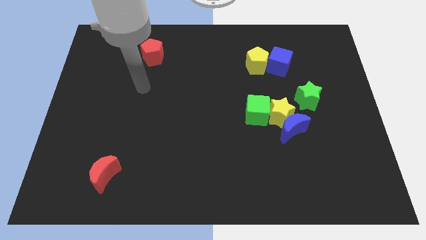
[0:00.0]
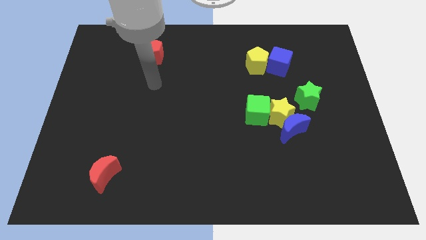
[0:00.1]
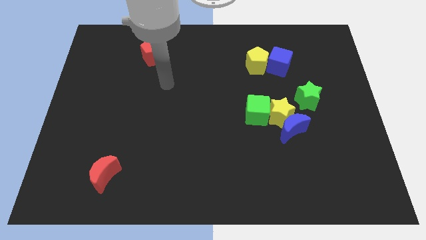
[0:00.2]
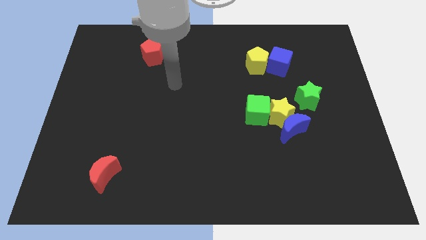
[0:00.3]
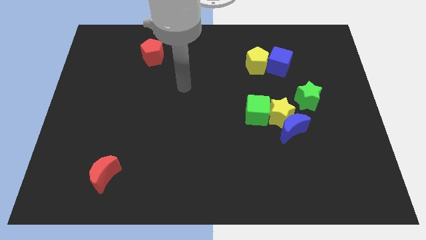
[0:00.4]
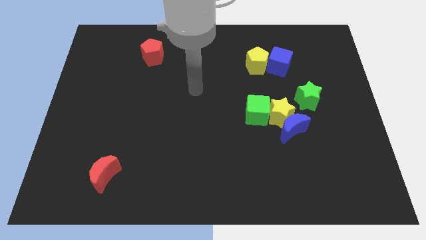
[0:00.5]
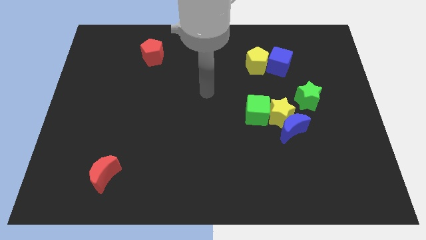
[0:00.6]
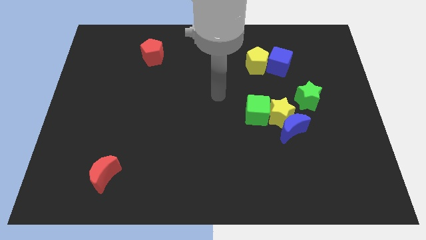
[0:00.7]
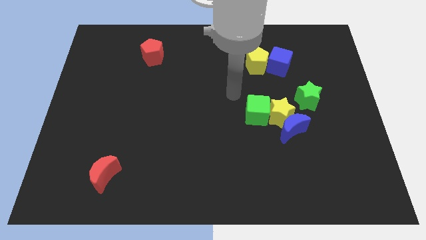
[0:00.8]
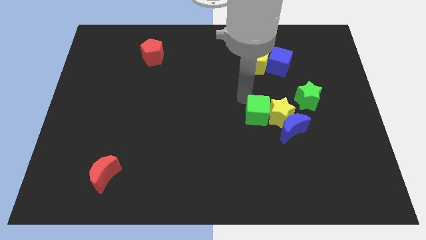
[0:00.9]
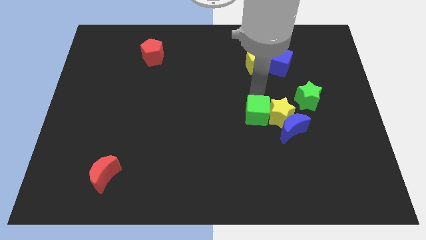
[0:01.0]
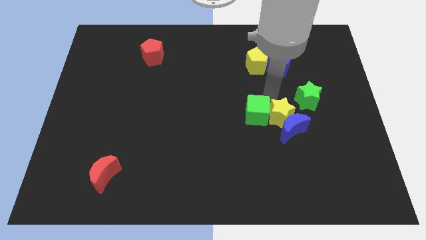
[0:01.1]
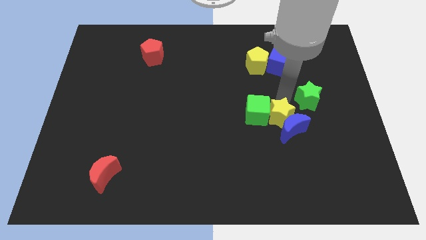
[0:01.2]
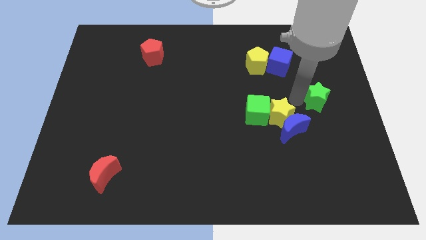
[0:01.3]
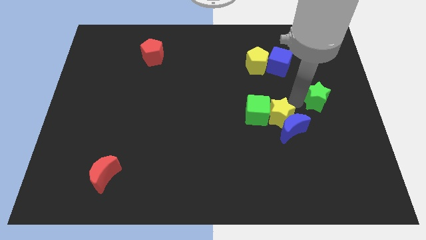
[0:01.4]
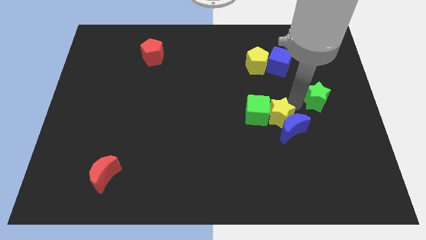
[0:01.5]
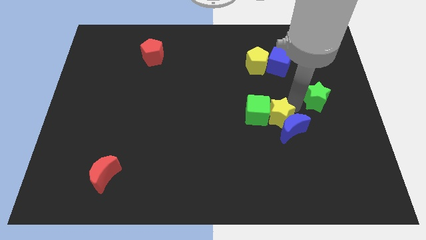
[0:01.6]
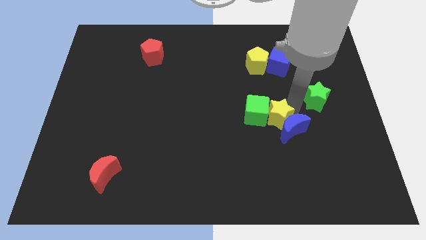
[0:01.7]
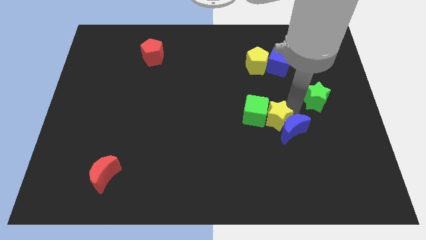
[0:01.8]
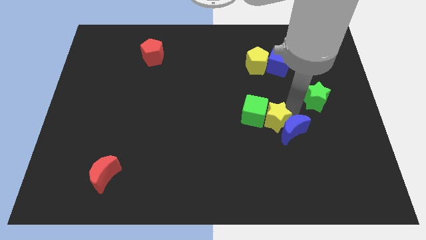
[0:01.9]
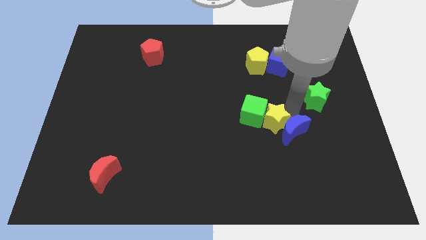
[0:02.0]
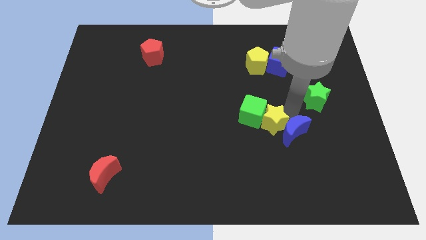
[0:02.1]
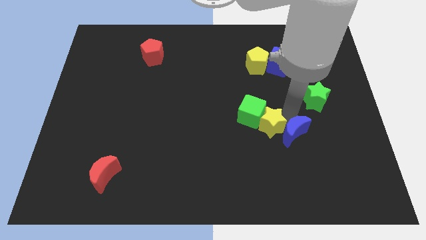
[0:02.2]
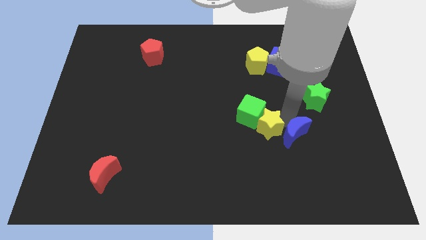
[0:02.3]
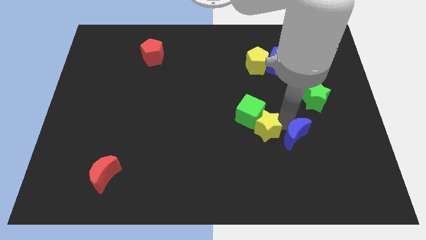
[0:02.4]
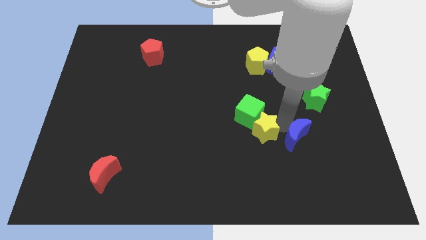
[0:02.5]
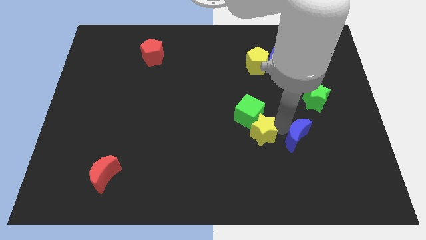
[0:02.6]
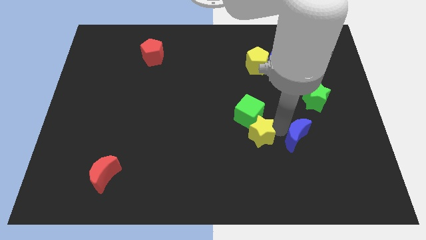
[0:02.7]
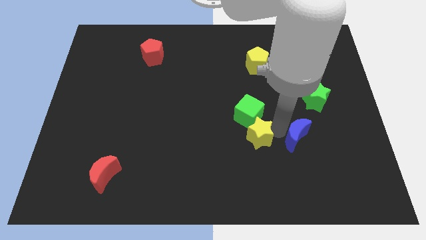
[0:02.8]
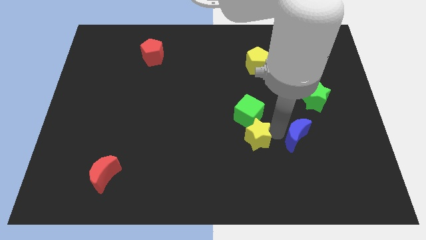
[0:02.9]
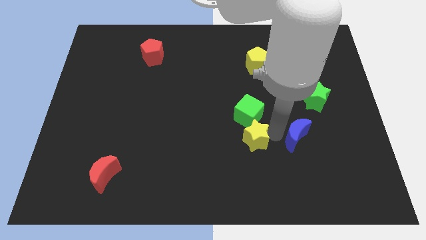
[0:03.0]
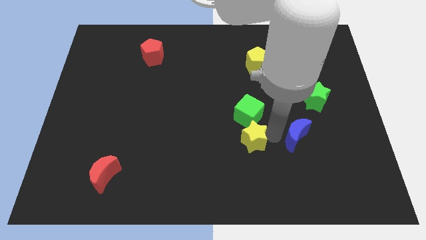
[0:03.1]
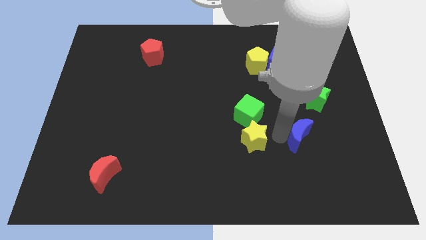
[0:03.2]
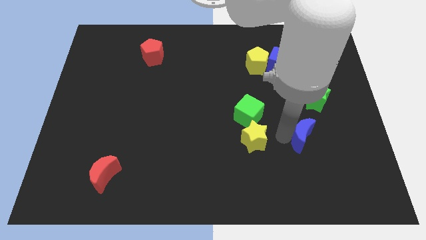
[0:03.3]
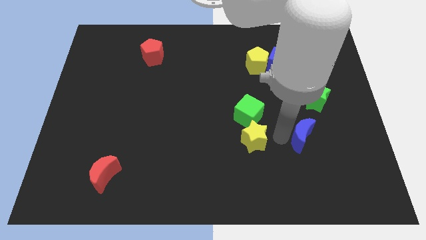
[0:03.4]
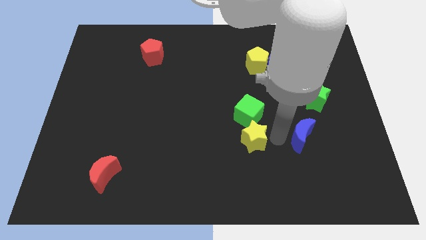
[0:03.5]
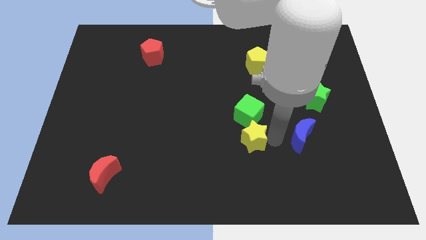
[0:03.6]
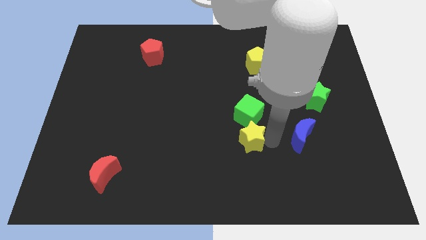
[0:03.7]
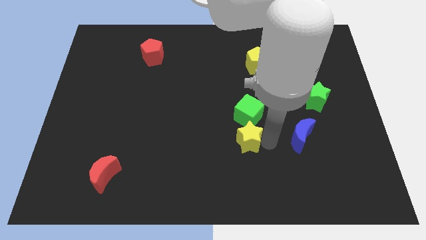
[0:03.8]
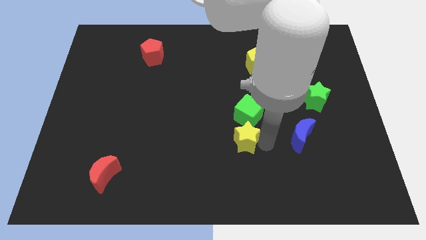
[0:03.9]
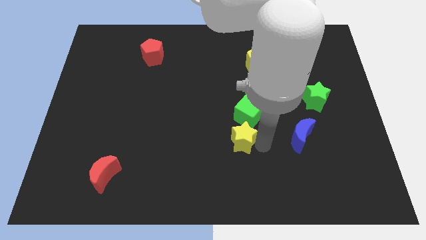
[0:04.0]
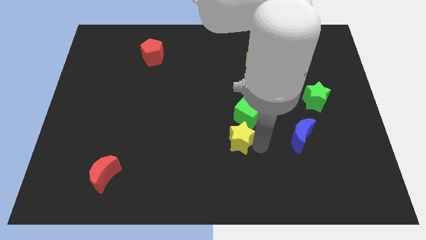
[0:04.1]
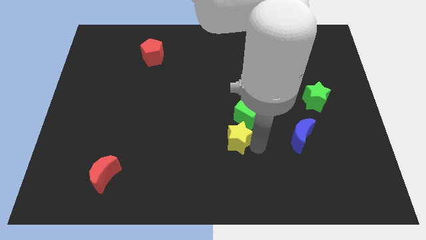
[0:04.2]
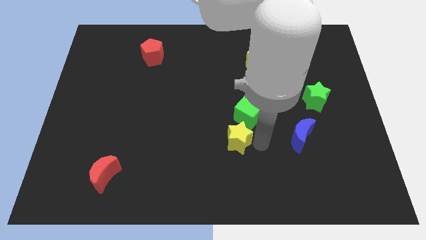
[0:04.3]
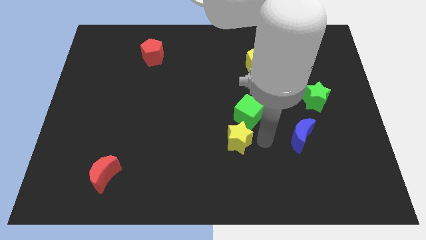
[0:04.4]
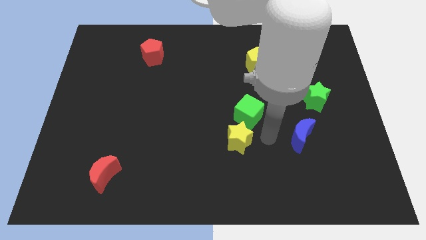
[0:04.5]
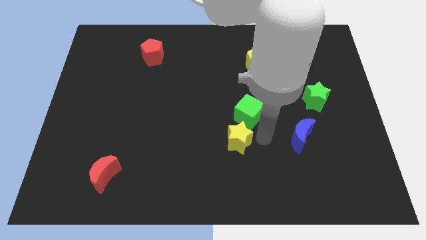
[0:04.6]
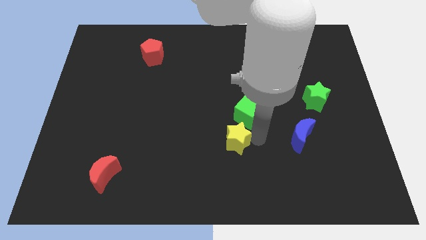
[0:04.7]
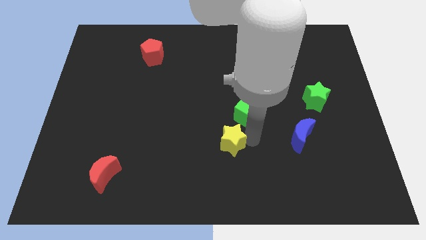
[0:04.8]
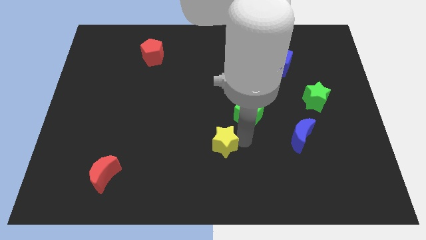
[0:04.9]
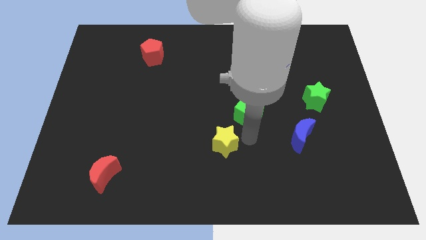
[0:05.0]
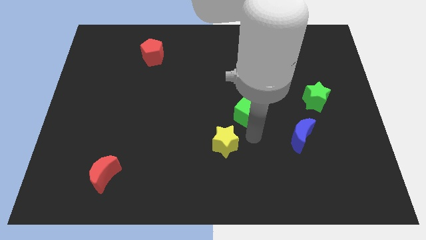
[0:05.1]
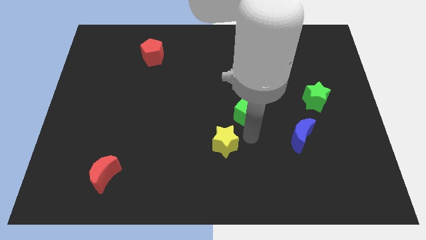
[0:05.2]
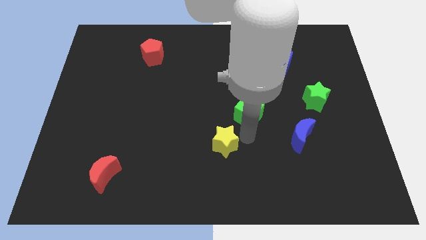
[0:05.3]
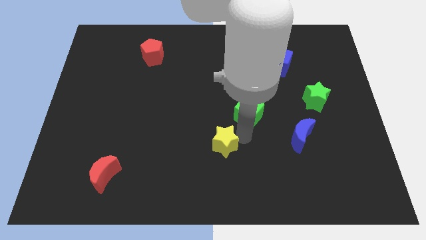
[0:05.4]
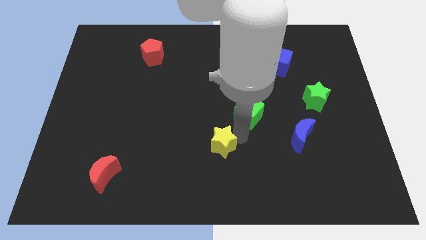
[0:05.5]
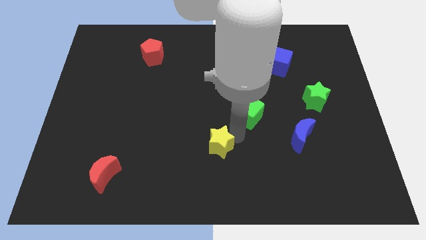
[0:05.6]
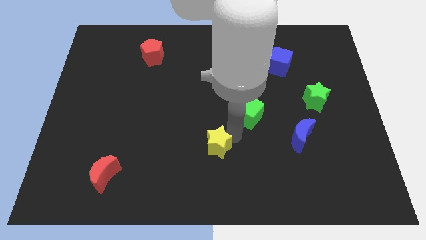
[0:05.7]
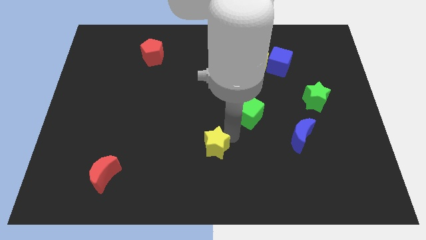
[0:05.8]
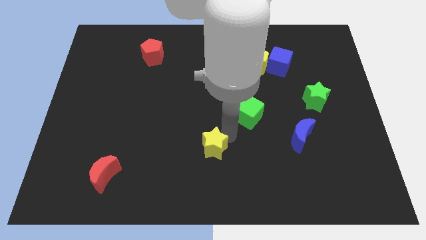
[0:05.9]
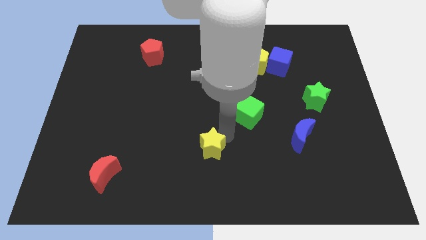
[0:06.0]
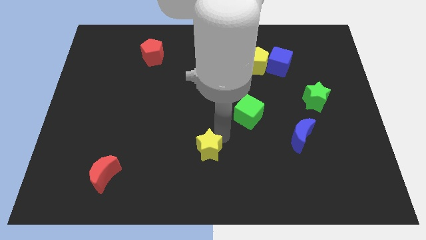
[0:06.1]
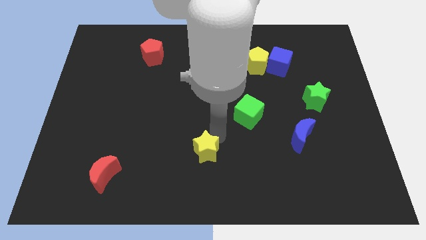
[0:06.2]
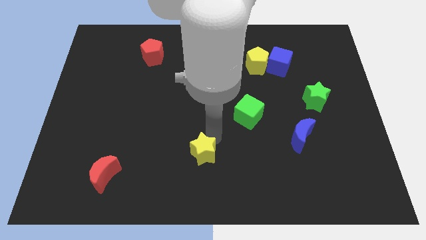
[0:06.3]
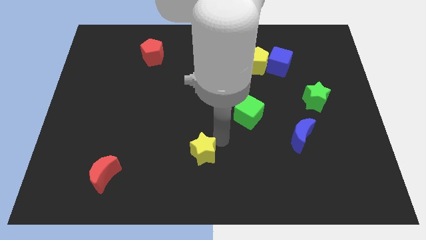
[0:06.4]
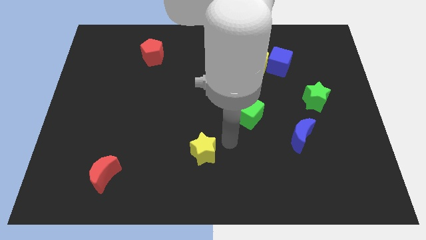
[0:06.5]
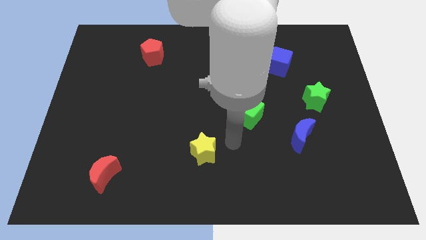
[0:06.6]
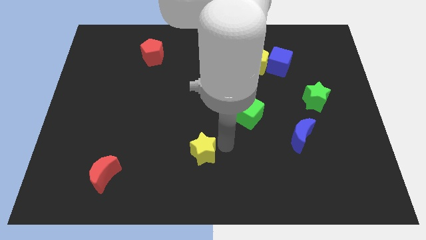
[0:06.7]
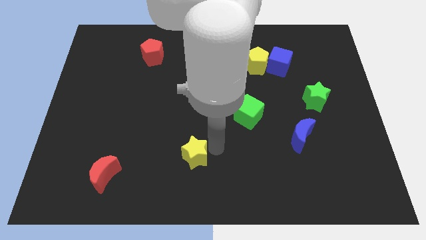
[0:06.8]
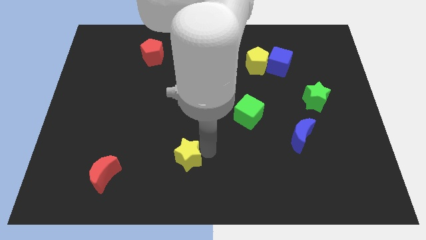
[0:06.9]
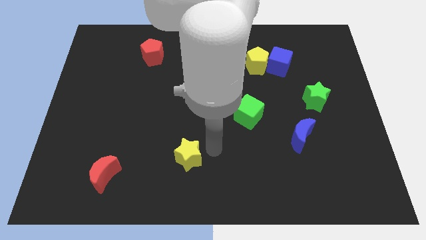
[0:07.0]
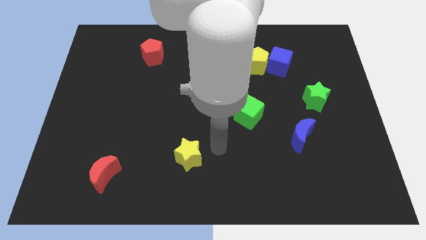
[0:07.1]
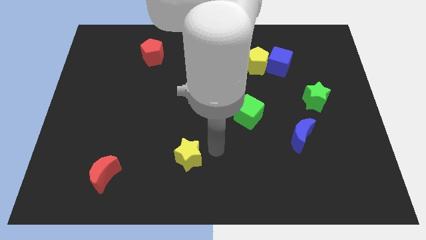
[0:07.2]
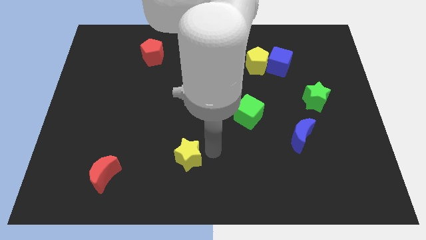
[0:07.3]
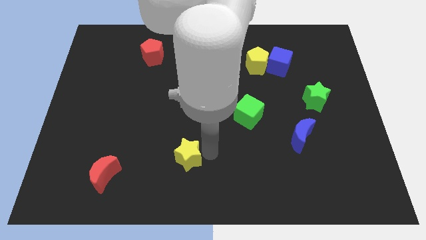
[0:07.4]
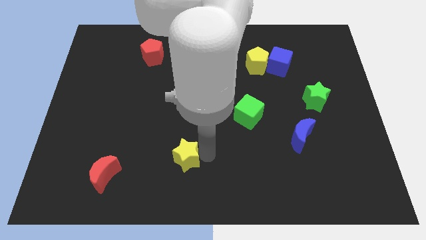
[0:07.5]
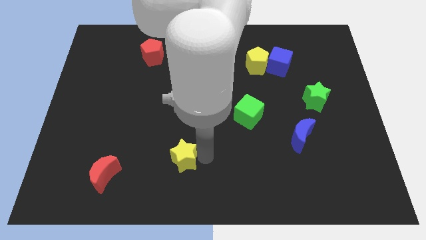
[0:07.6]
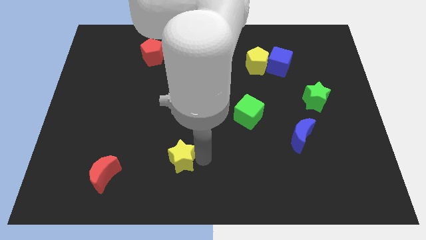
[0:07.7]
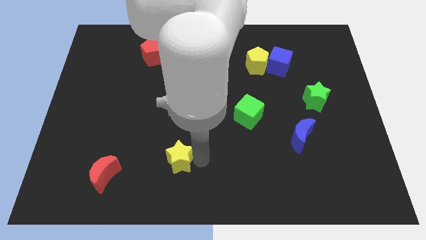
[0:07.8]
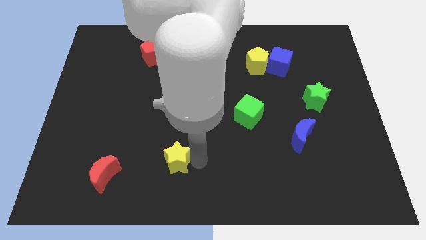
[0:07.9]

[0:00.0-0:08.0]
move the yellow star just right of the red moon
